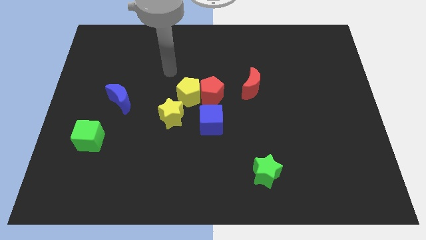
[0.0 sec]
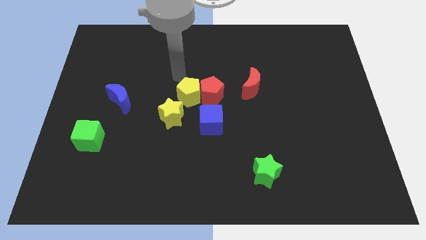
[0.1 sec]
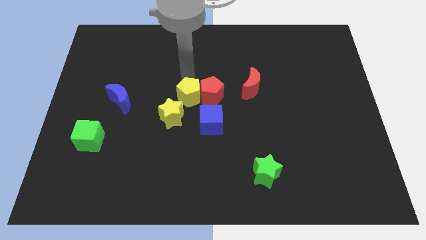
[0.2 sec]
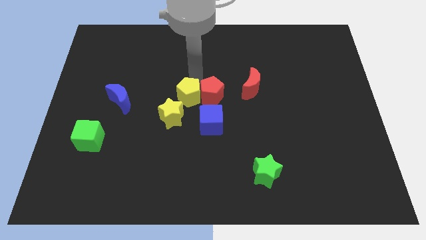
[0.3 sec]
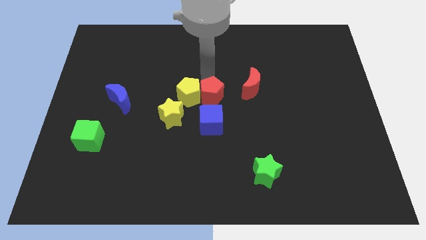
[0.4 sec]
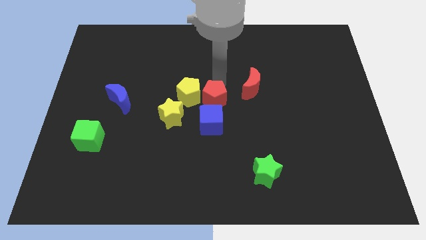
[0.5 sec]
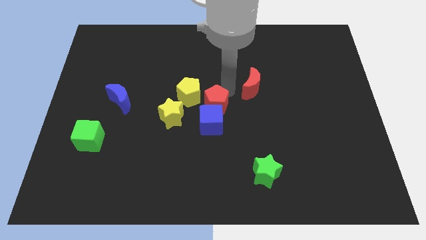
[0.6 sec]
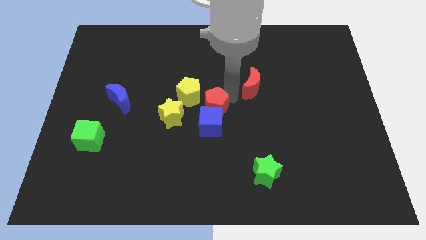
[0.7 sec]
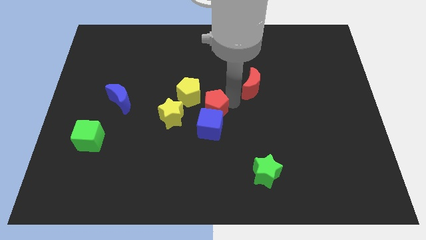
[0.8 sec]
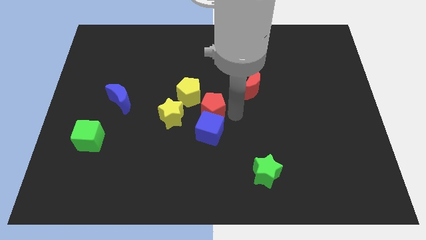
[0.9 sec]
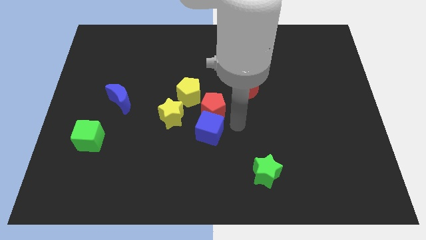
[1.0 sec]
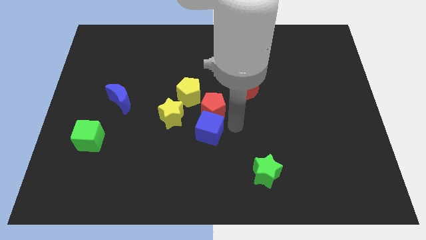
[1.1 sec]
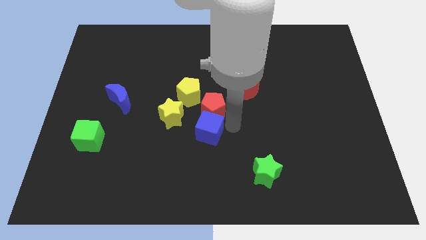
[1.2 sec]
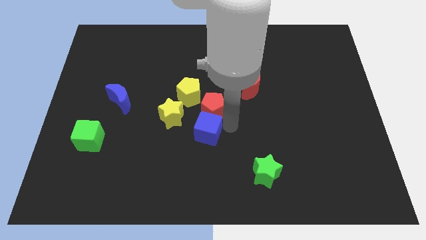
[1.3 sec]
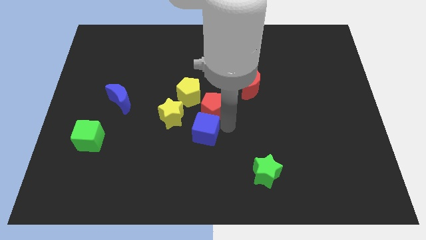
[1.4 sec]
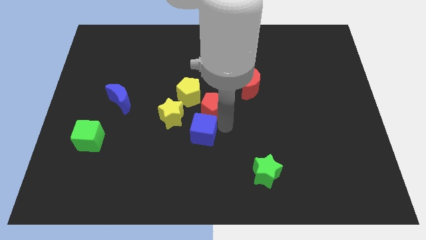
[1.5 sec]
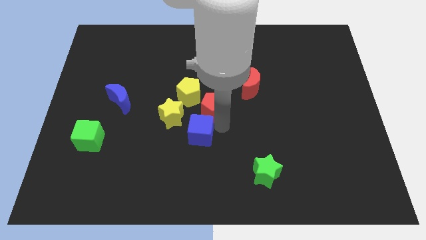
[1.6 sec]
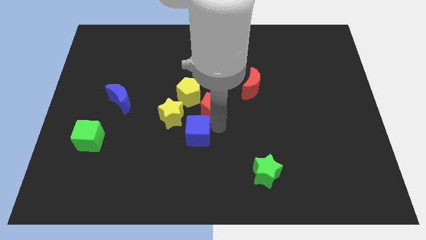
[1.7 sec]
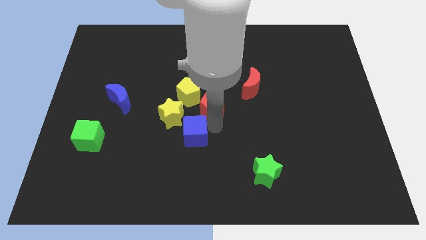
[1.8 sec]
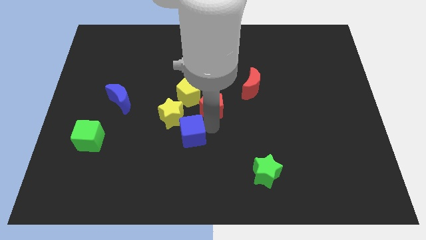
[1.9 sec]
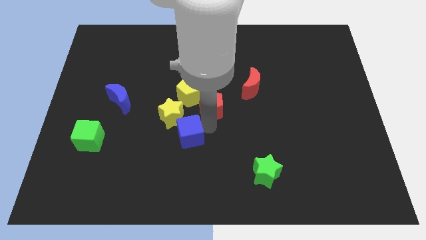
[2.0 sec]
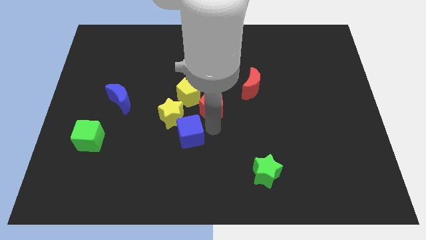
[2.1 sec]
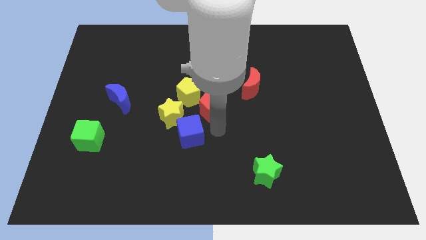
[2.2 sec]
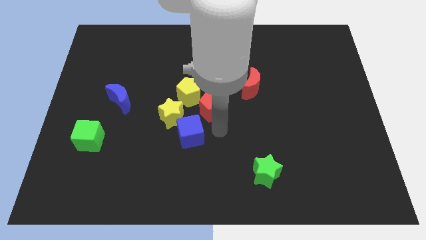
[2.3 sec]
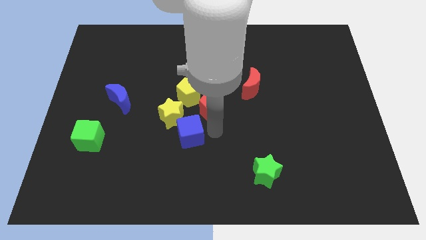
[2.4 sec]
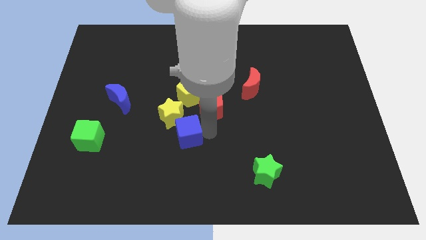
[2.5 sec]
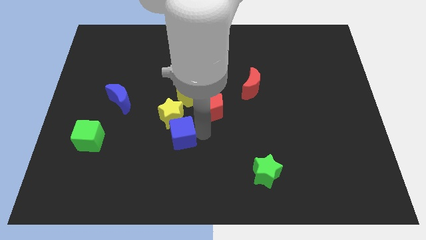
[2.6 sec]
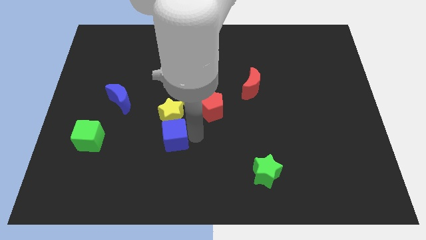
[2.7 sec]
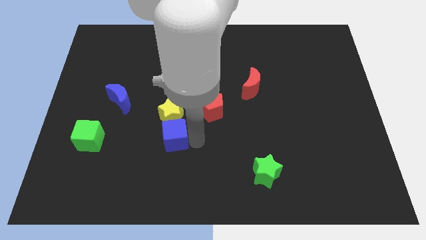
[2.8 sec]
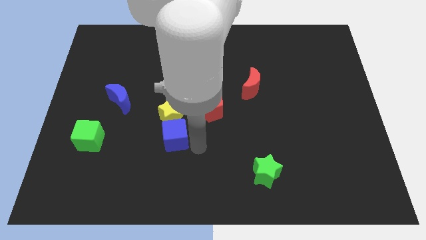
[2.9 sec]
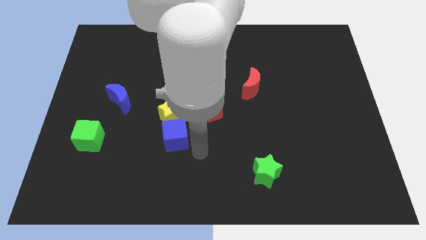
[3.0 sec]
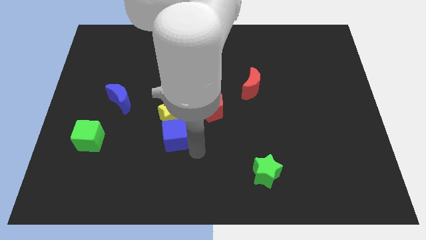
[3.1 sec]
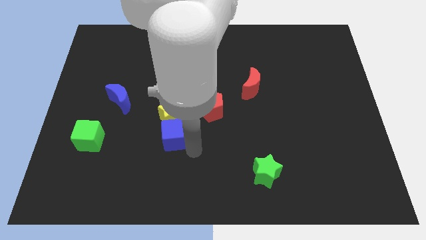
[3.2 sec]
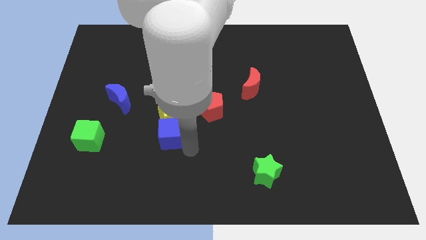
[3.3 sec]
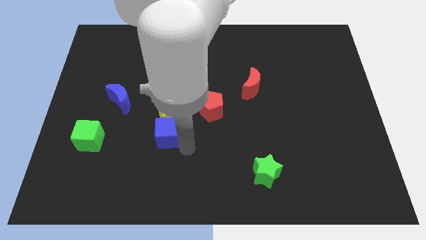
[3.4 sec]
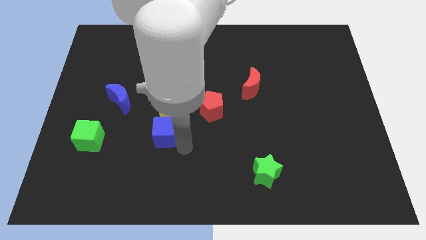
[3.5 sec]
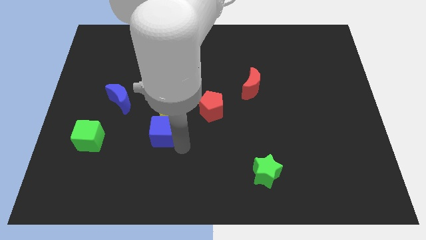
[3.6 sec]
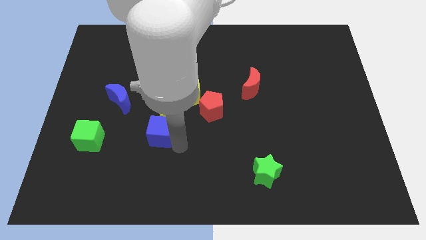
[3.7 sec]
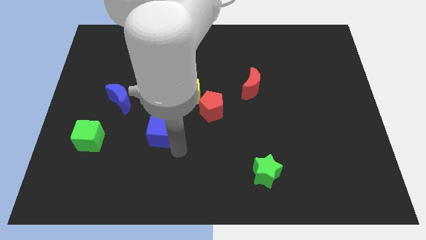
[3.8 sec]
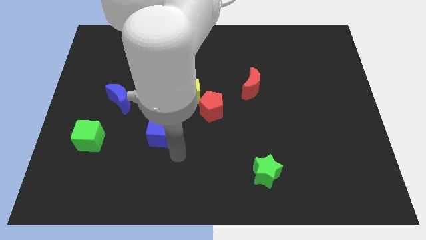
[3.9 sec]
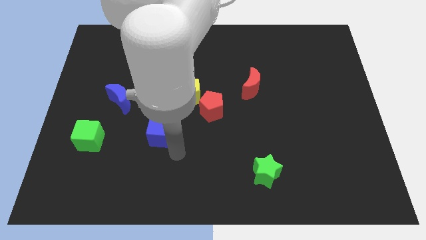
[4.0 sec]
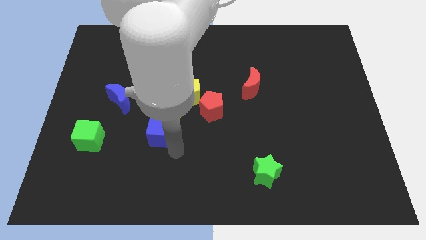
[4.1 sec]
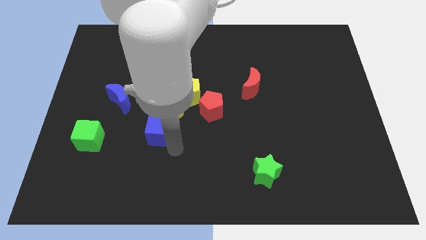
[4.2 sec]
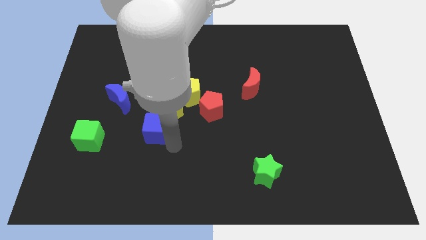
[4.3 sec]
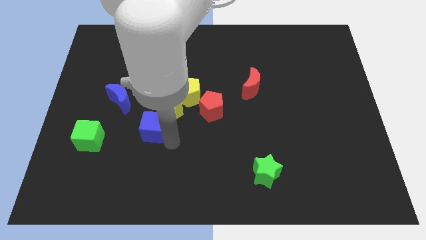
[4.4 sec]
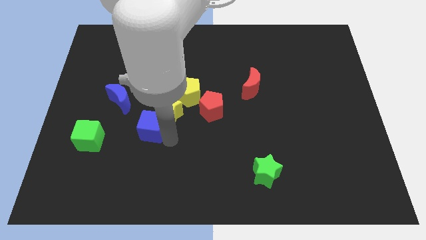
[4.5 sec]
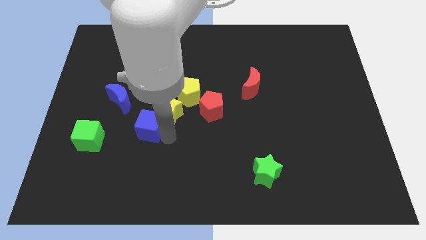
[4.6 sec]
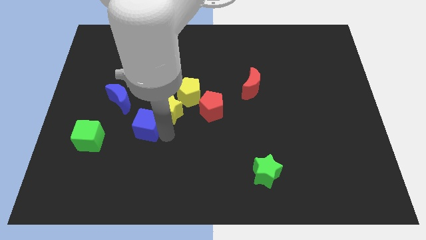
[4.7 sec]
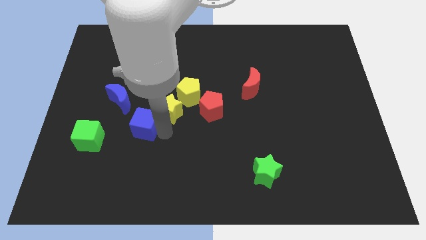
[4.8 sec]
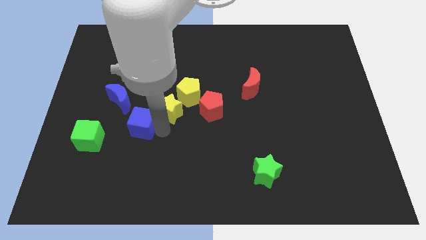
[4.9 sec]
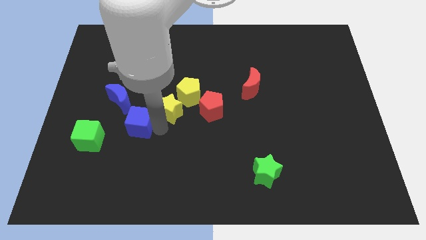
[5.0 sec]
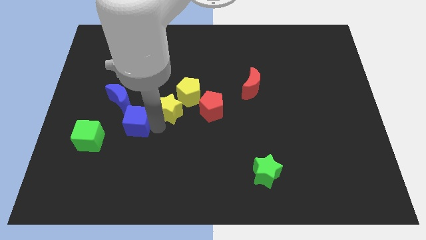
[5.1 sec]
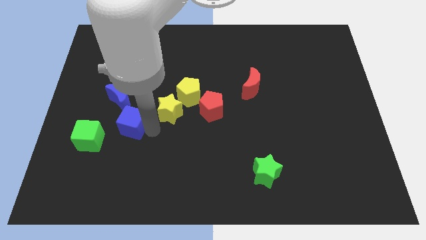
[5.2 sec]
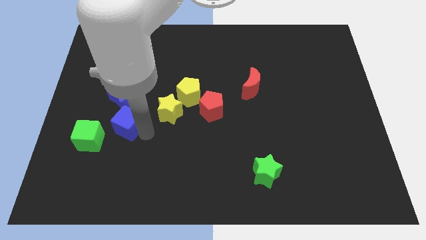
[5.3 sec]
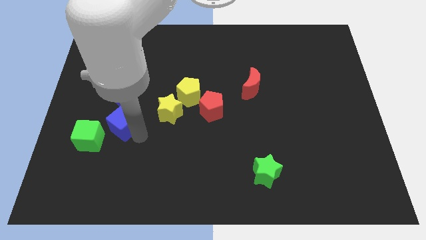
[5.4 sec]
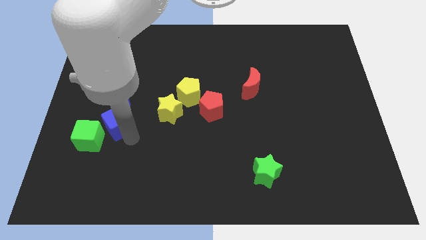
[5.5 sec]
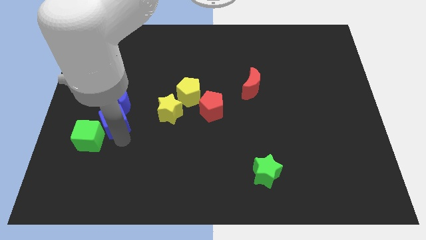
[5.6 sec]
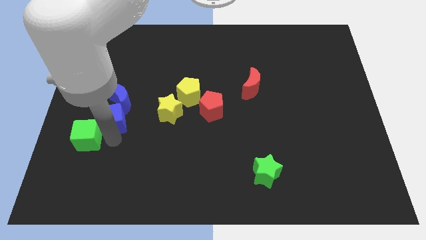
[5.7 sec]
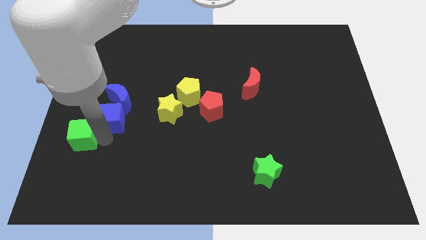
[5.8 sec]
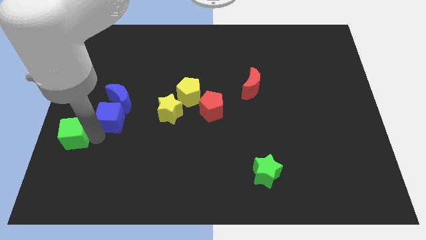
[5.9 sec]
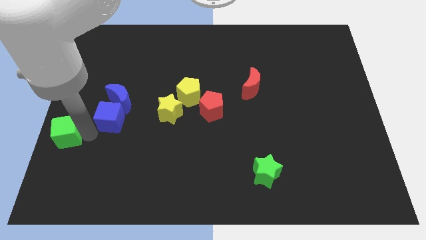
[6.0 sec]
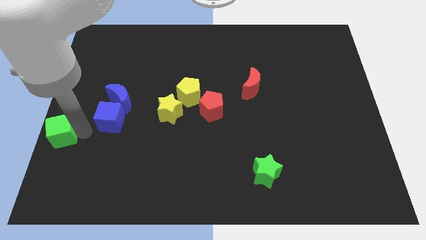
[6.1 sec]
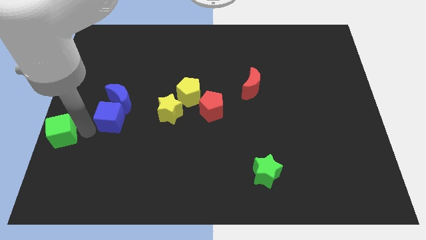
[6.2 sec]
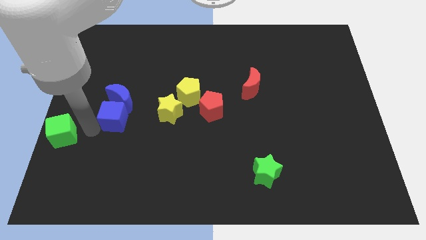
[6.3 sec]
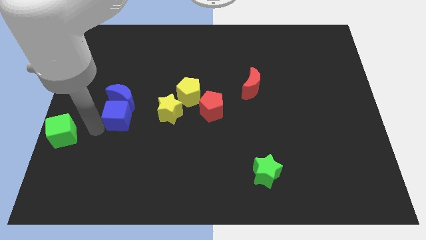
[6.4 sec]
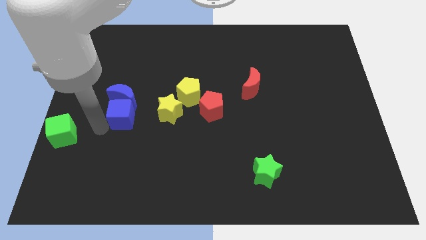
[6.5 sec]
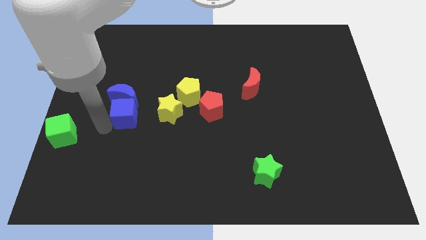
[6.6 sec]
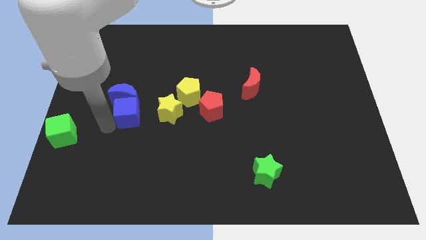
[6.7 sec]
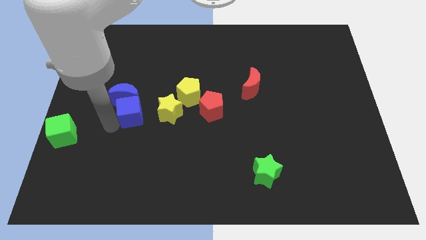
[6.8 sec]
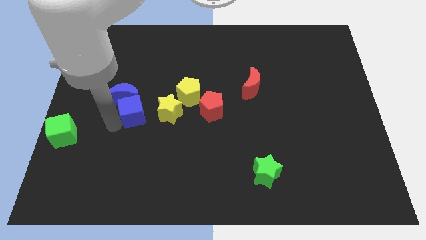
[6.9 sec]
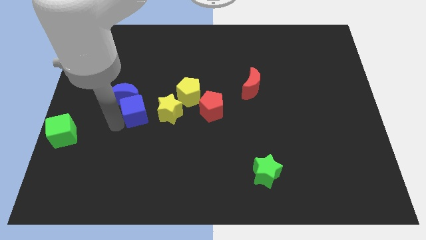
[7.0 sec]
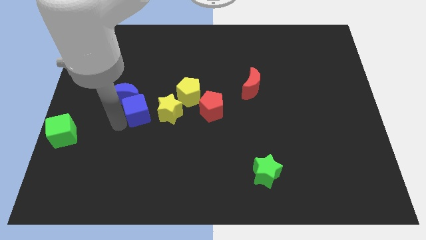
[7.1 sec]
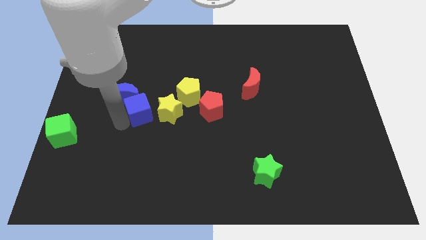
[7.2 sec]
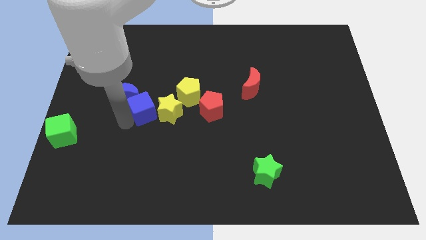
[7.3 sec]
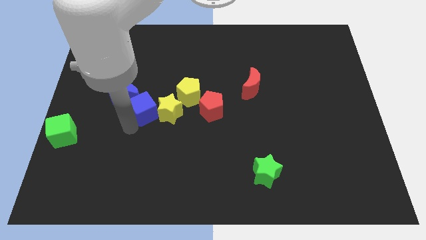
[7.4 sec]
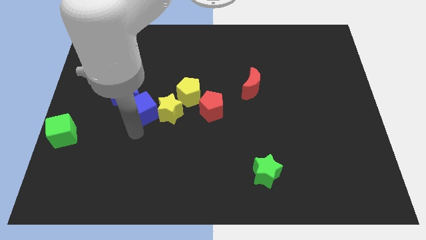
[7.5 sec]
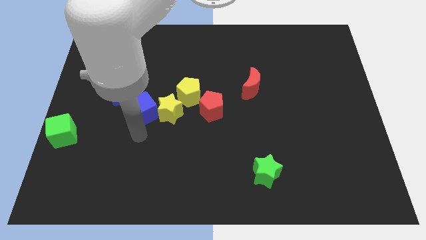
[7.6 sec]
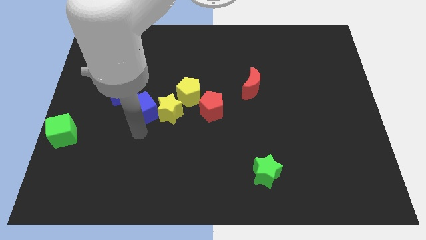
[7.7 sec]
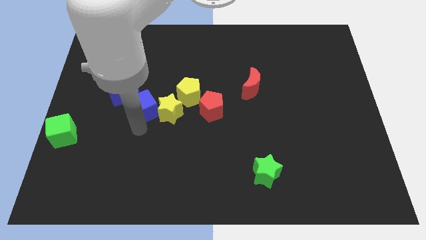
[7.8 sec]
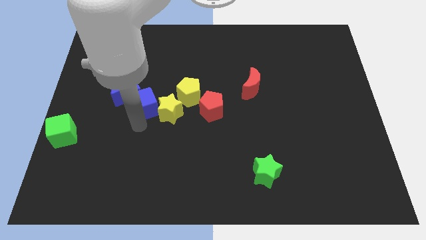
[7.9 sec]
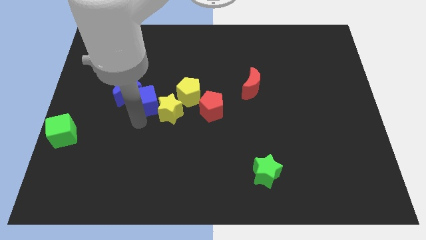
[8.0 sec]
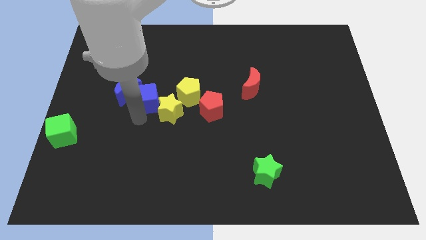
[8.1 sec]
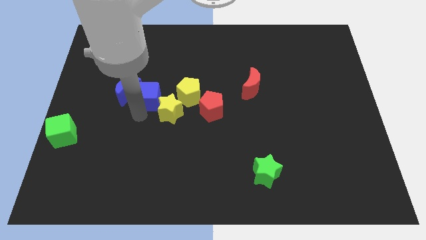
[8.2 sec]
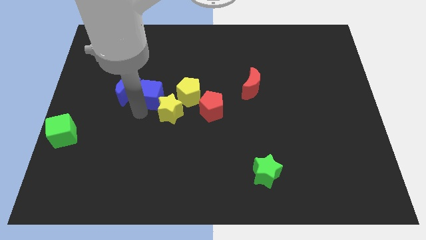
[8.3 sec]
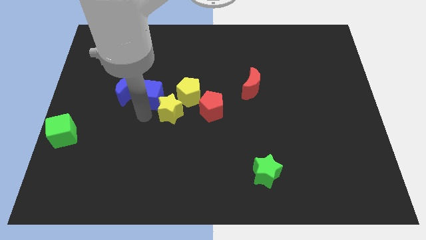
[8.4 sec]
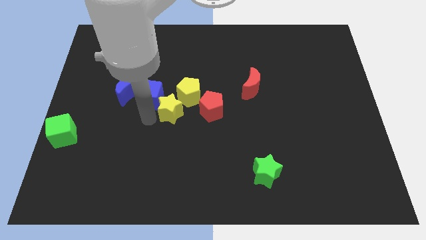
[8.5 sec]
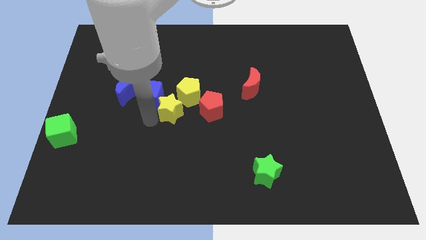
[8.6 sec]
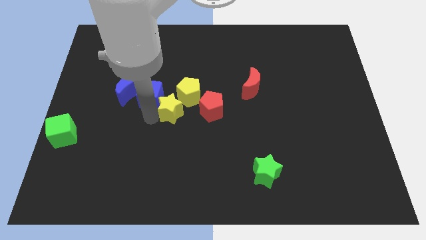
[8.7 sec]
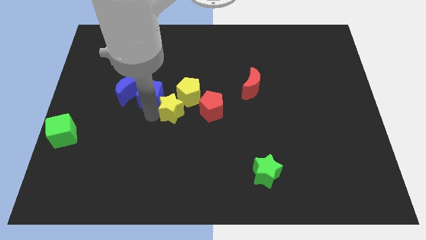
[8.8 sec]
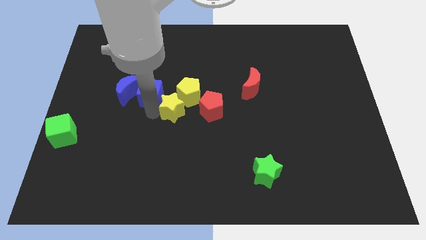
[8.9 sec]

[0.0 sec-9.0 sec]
push the blue cube diagonally up and to the right of the blue moon
